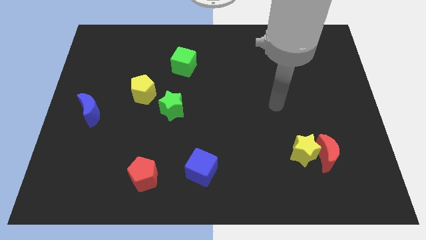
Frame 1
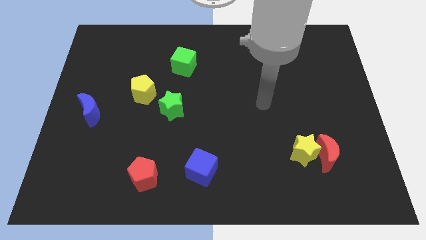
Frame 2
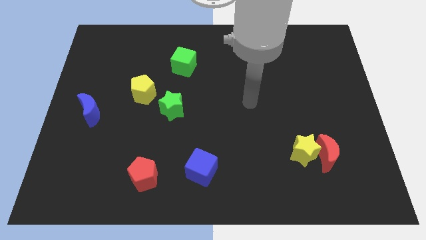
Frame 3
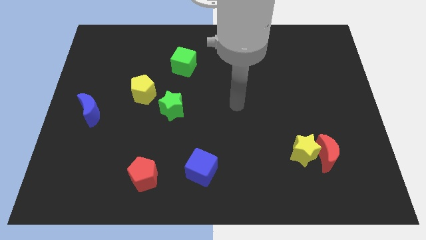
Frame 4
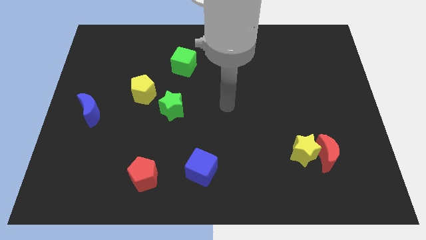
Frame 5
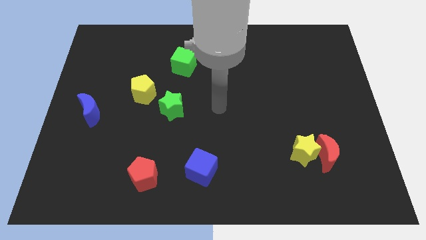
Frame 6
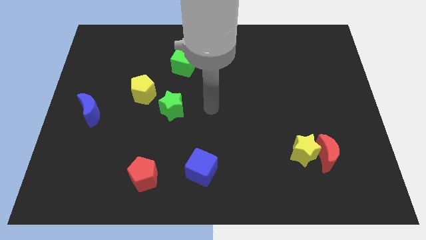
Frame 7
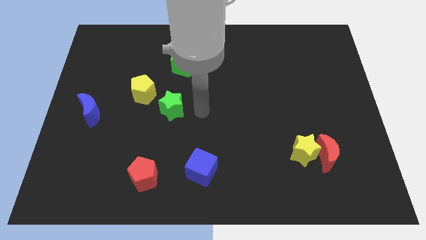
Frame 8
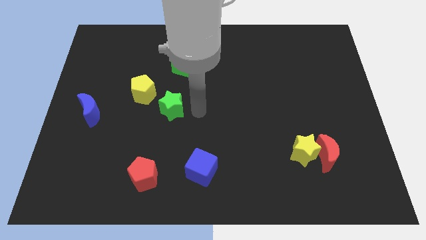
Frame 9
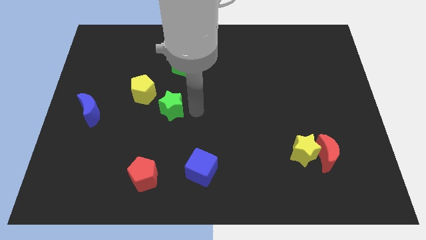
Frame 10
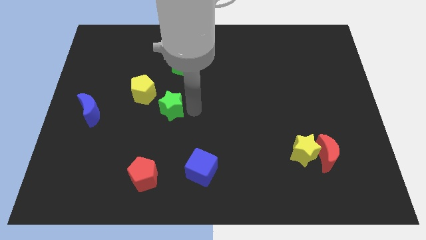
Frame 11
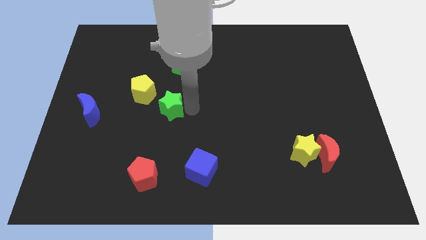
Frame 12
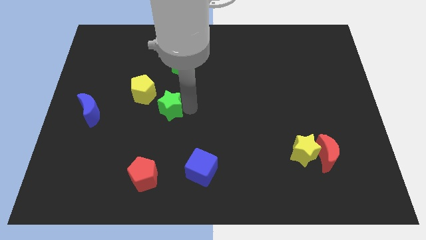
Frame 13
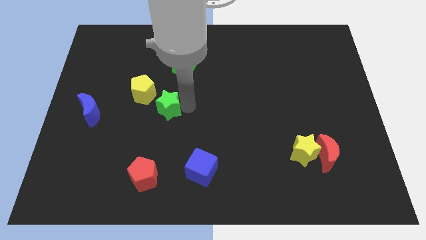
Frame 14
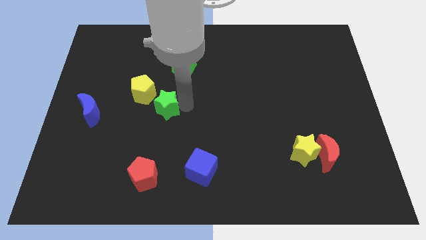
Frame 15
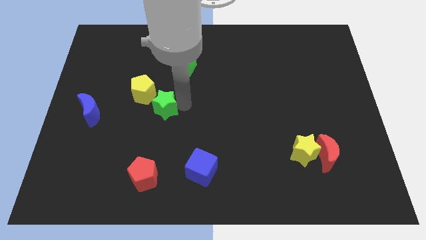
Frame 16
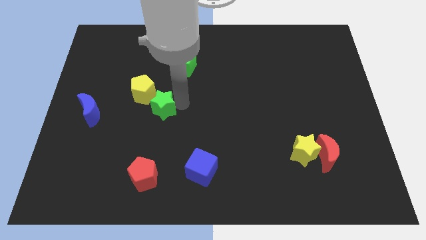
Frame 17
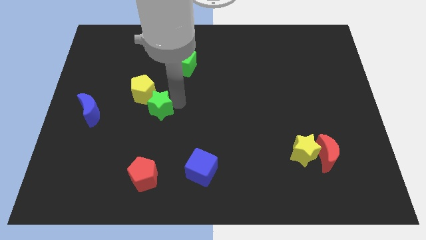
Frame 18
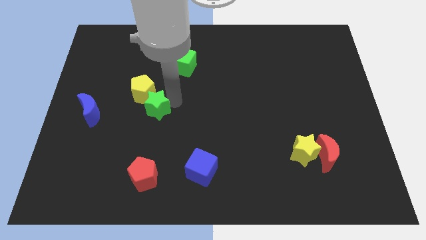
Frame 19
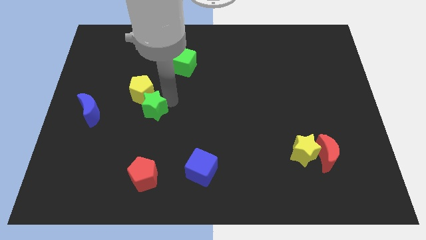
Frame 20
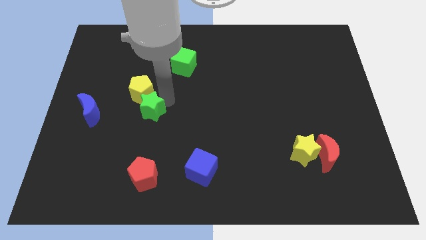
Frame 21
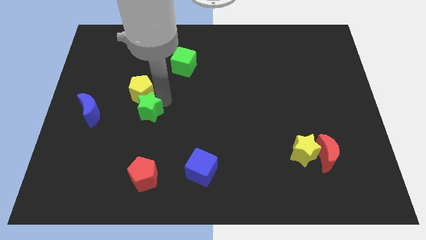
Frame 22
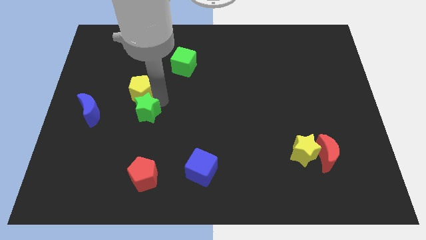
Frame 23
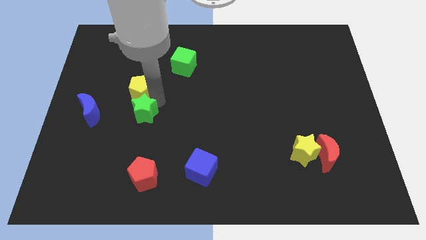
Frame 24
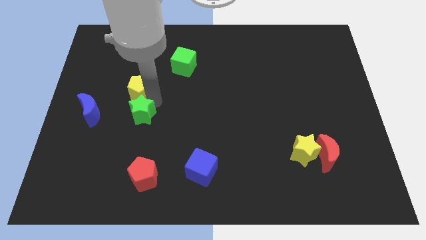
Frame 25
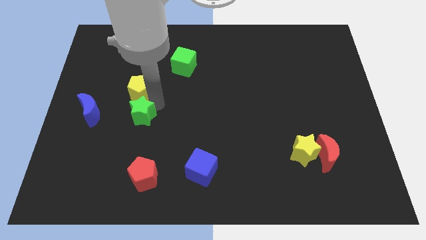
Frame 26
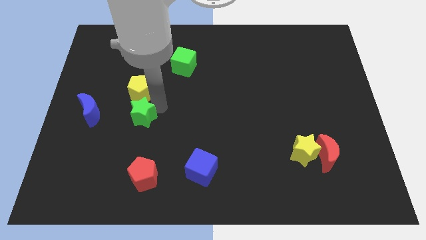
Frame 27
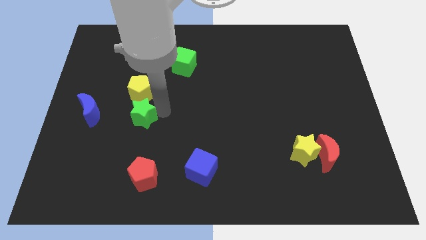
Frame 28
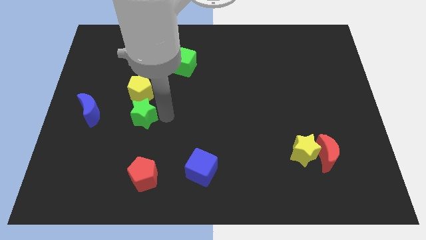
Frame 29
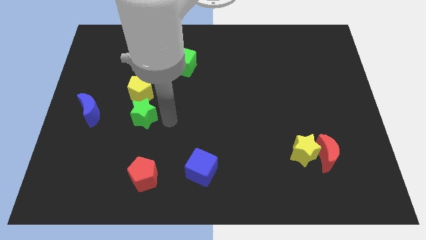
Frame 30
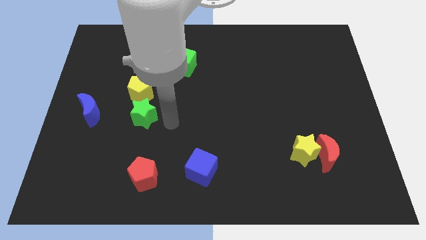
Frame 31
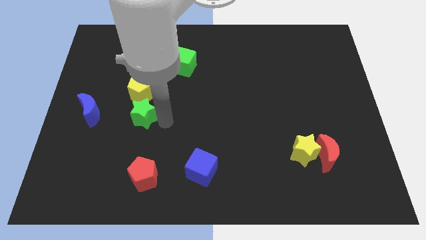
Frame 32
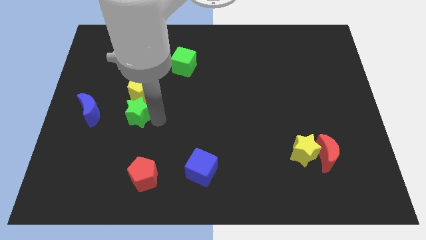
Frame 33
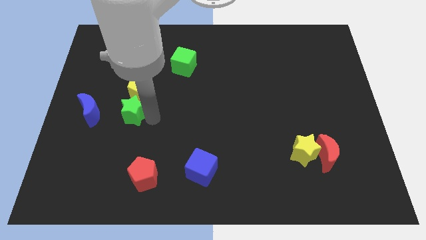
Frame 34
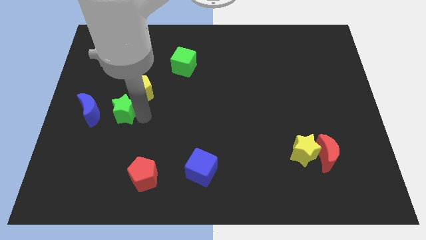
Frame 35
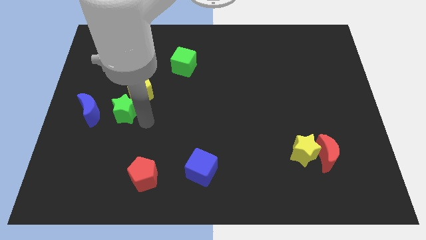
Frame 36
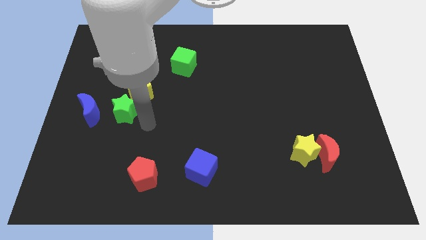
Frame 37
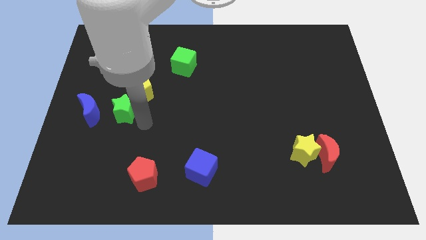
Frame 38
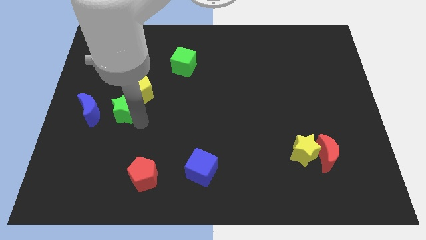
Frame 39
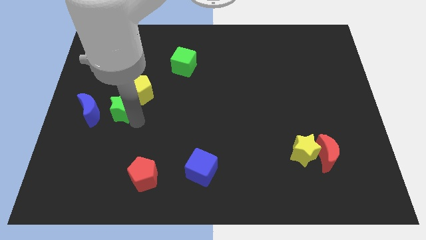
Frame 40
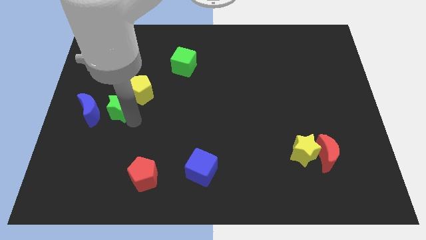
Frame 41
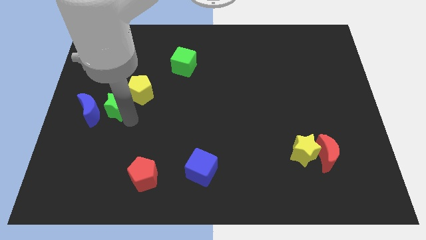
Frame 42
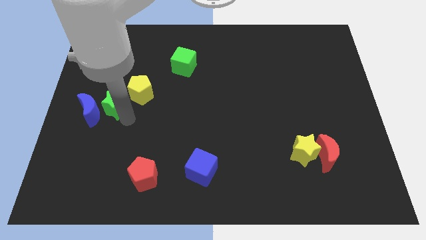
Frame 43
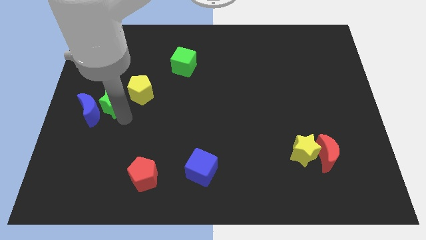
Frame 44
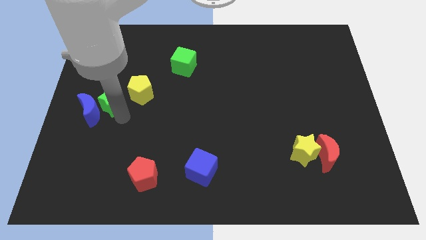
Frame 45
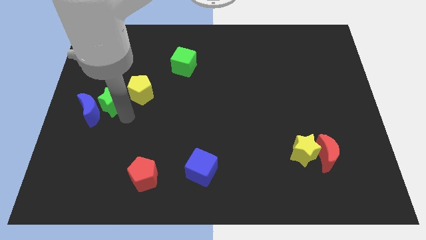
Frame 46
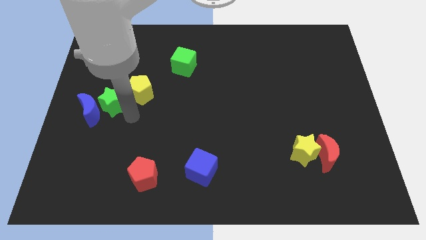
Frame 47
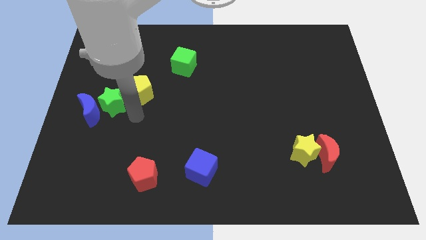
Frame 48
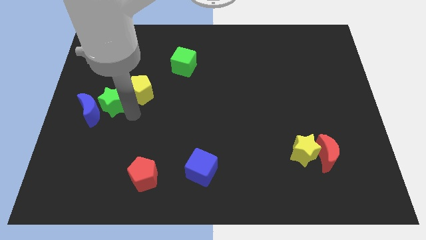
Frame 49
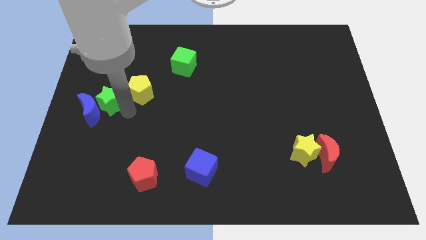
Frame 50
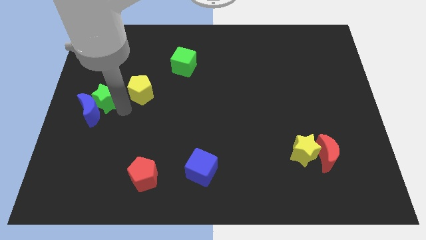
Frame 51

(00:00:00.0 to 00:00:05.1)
push the green star to the center left

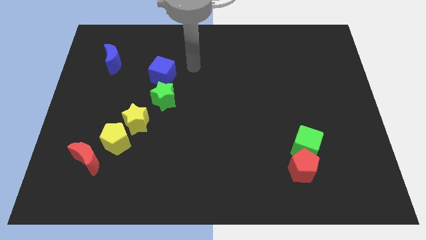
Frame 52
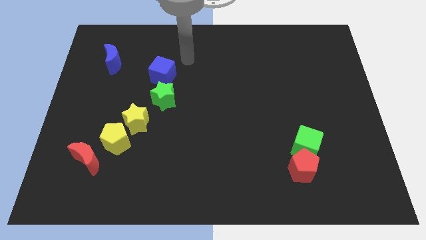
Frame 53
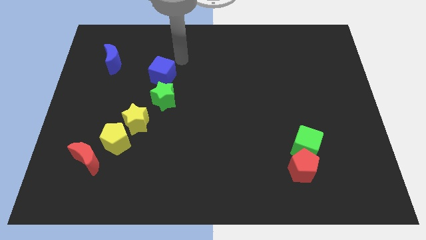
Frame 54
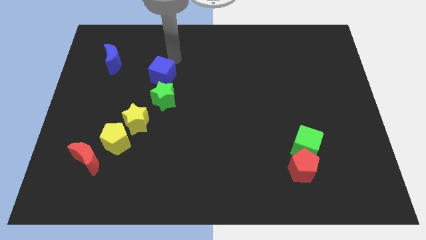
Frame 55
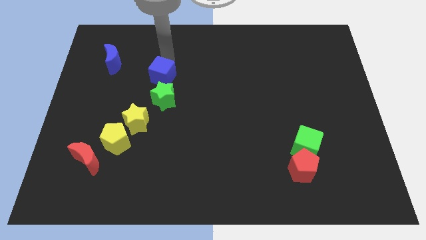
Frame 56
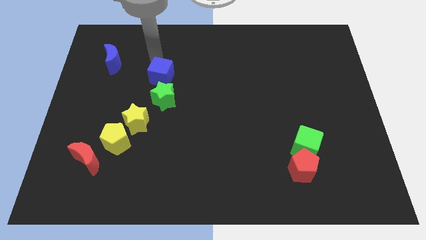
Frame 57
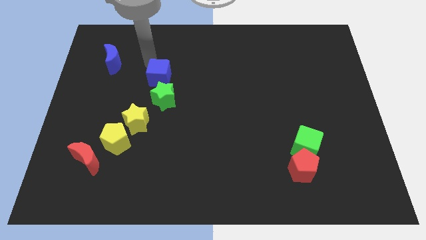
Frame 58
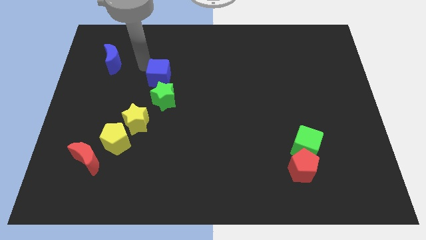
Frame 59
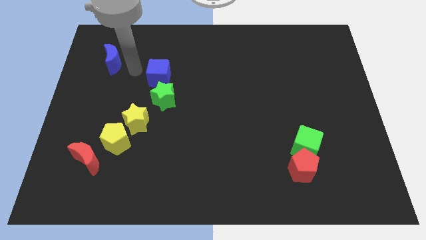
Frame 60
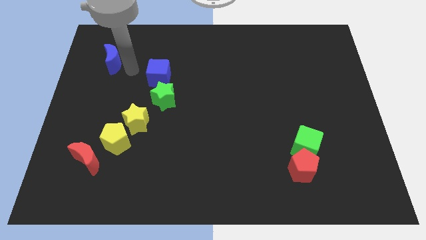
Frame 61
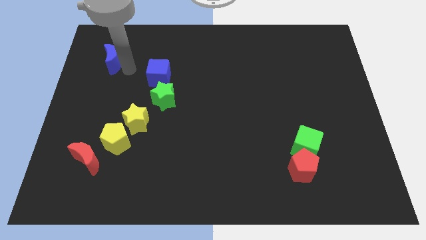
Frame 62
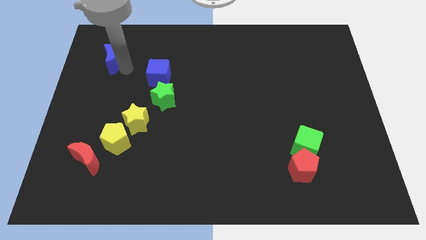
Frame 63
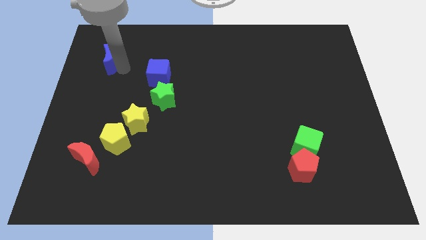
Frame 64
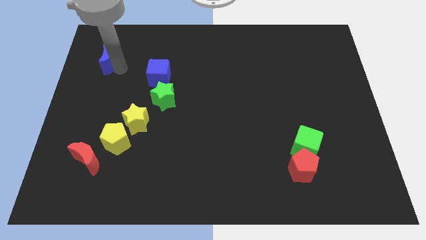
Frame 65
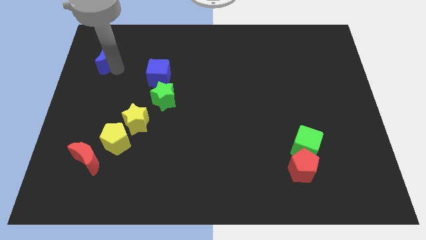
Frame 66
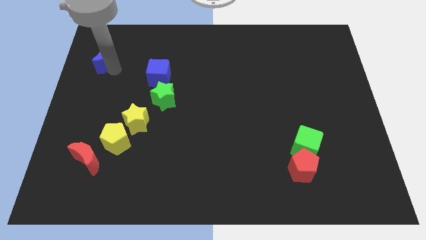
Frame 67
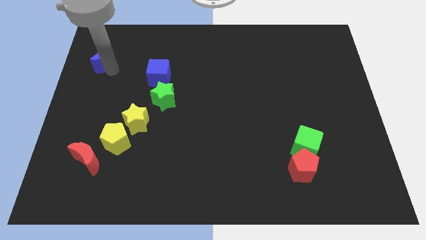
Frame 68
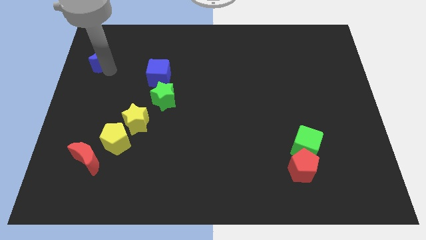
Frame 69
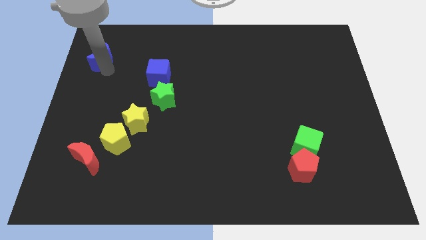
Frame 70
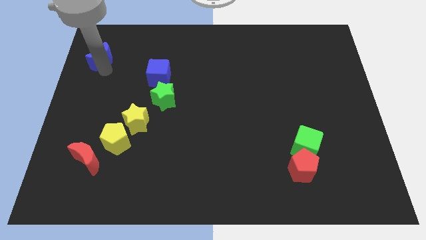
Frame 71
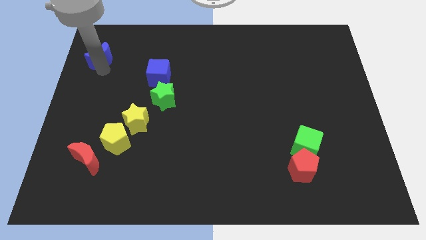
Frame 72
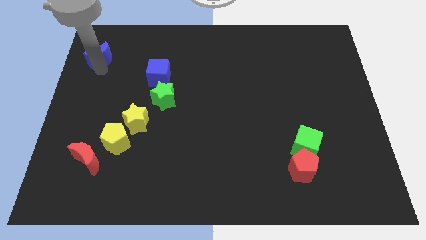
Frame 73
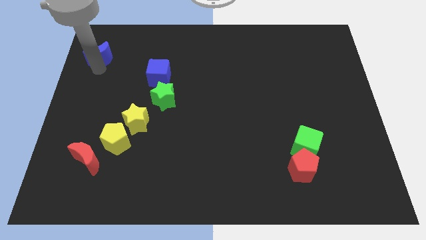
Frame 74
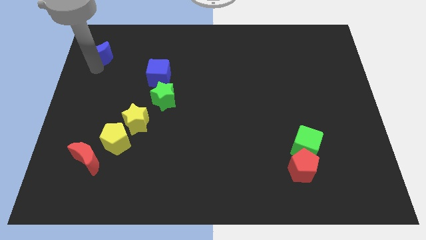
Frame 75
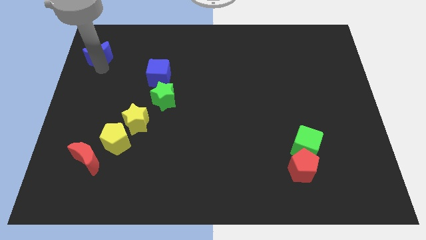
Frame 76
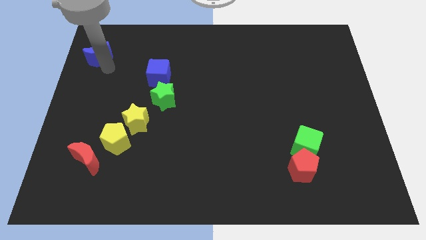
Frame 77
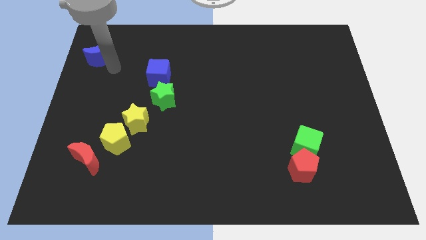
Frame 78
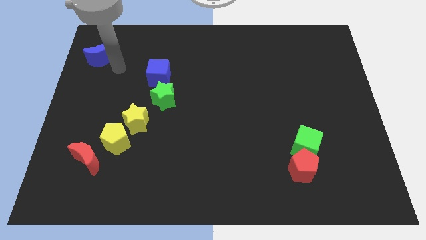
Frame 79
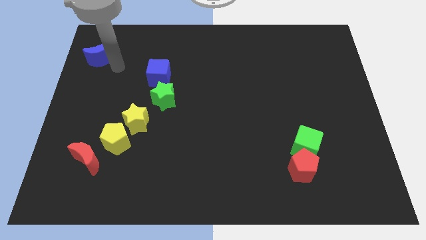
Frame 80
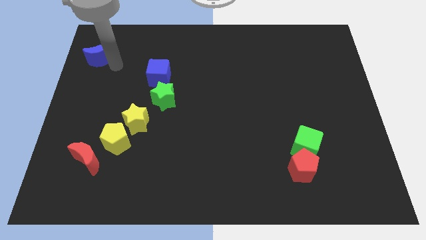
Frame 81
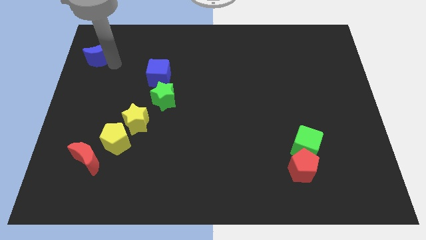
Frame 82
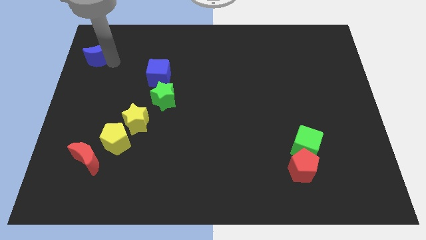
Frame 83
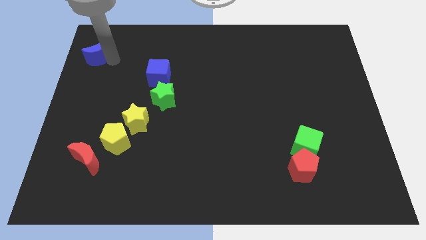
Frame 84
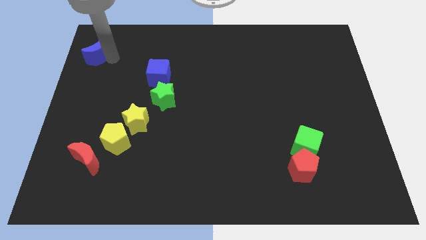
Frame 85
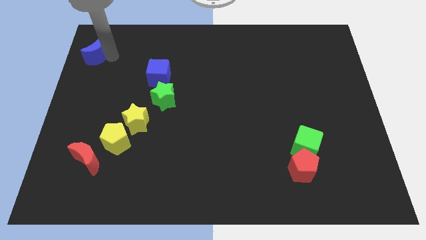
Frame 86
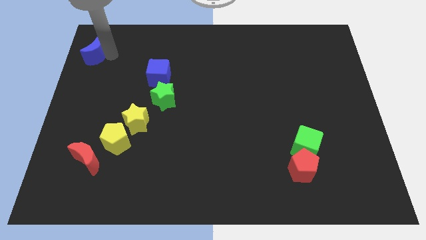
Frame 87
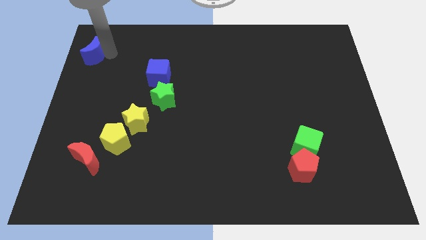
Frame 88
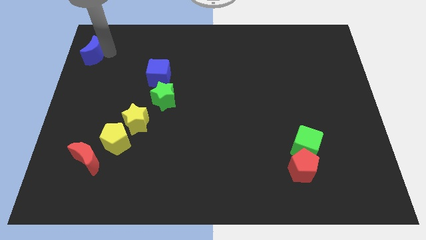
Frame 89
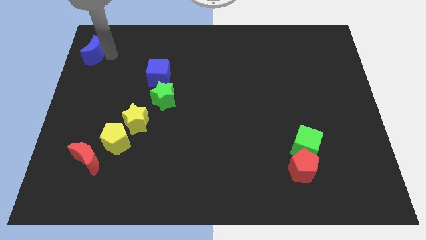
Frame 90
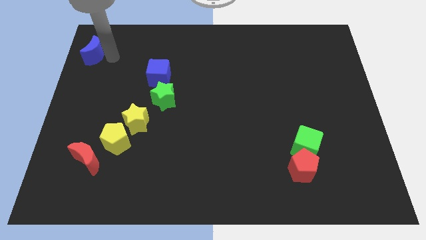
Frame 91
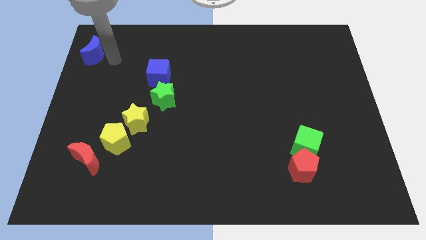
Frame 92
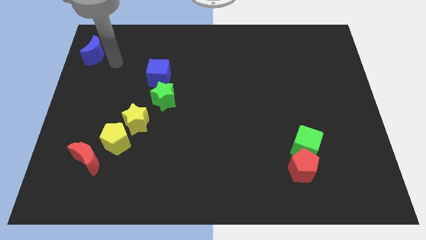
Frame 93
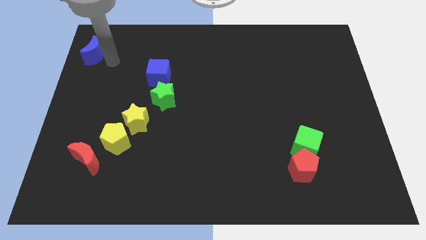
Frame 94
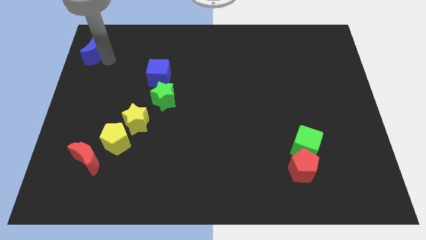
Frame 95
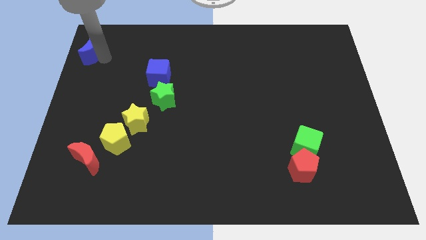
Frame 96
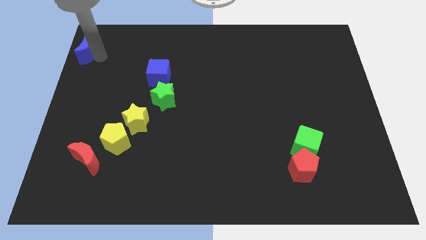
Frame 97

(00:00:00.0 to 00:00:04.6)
move the blue moon to the top left corner
